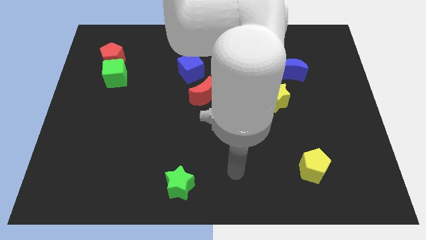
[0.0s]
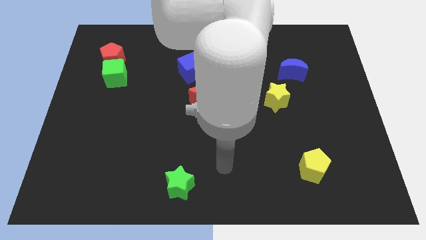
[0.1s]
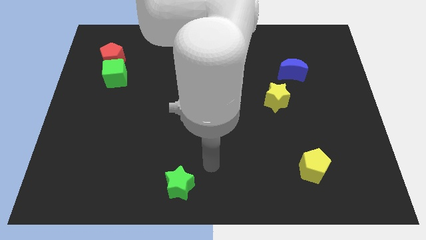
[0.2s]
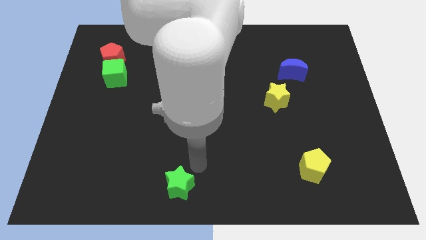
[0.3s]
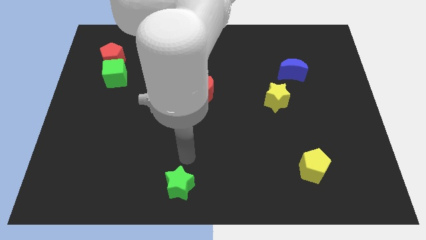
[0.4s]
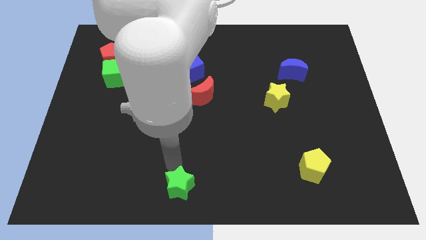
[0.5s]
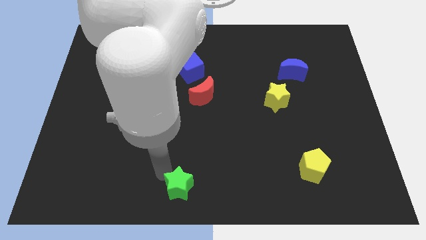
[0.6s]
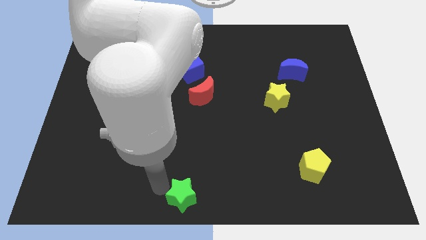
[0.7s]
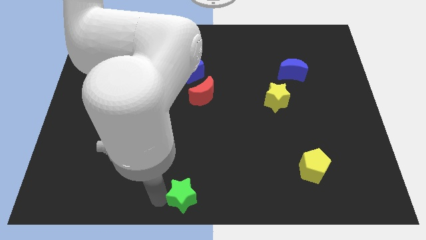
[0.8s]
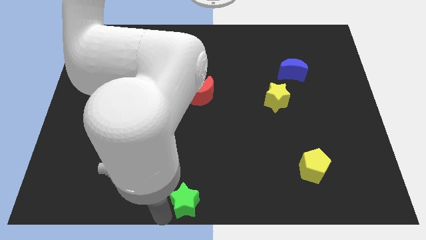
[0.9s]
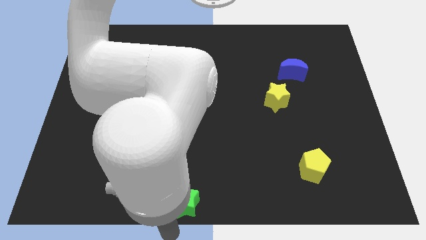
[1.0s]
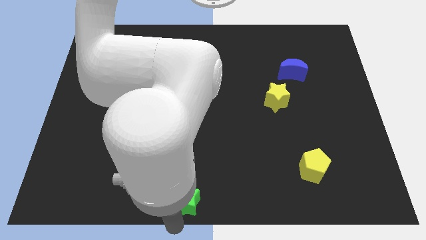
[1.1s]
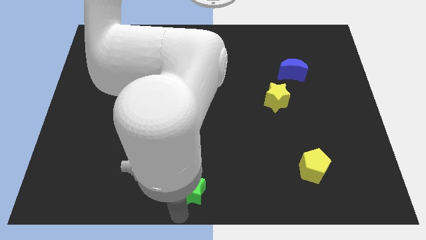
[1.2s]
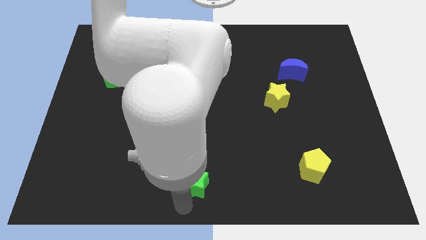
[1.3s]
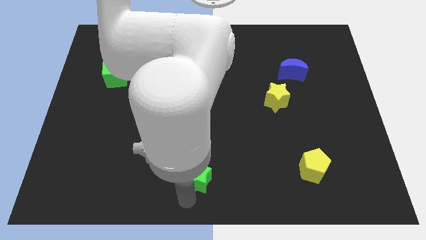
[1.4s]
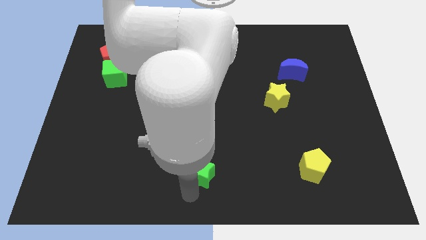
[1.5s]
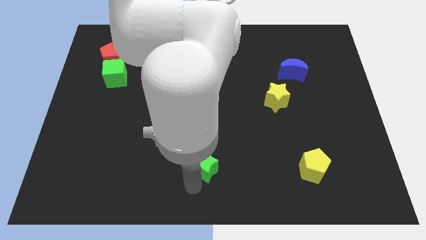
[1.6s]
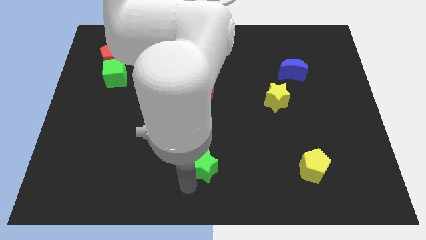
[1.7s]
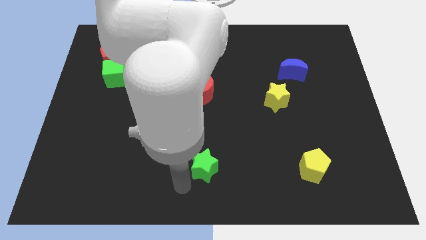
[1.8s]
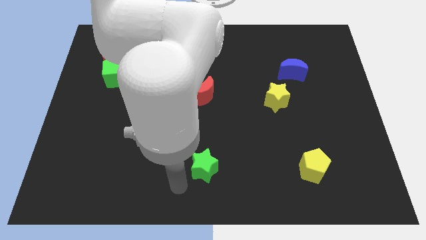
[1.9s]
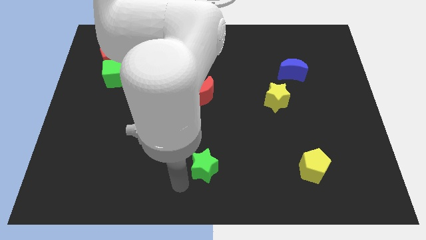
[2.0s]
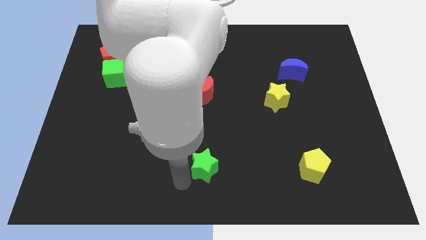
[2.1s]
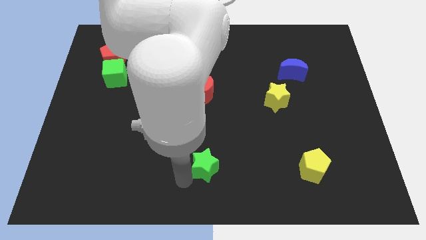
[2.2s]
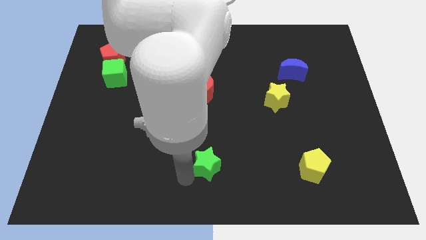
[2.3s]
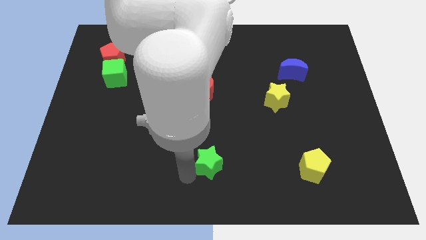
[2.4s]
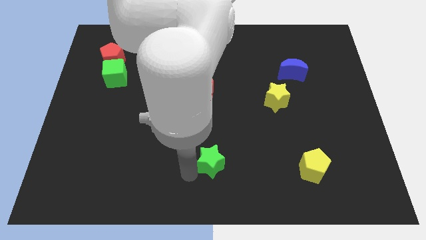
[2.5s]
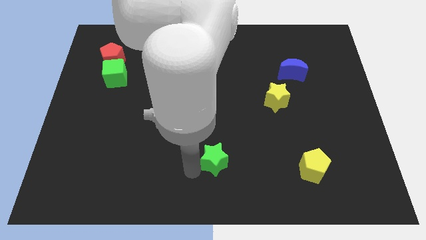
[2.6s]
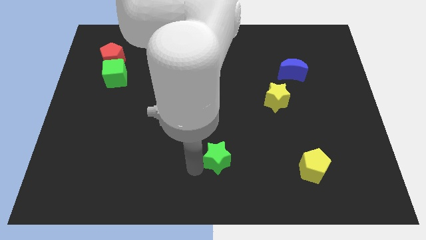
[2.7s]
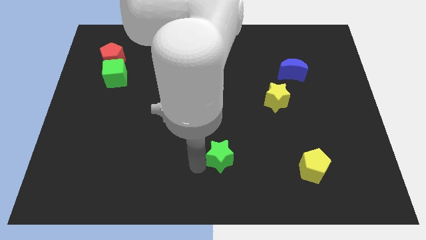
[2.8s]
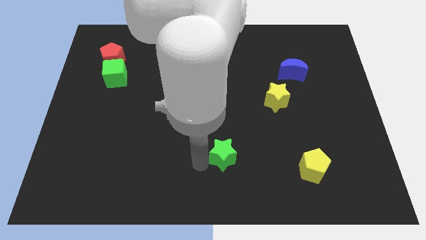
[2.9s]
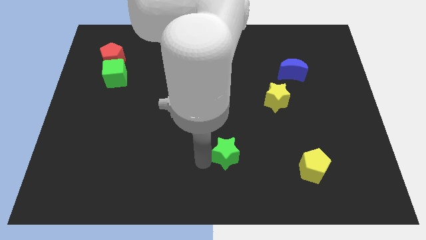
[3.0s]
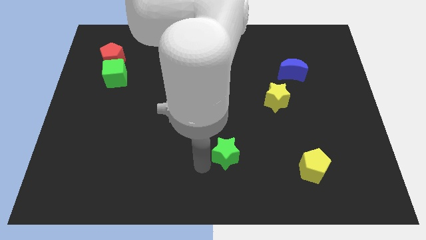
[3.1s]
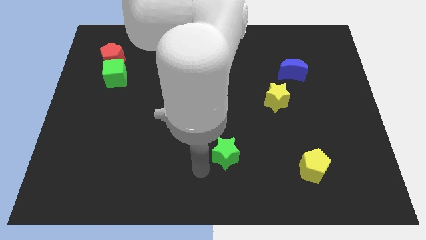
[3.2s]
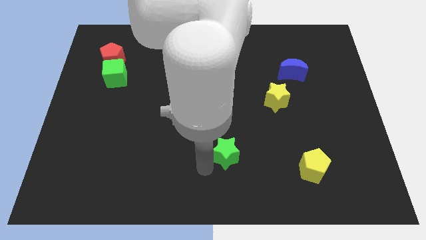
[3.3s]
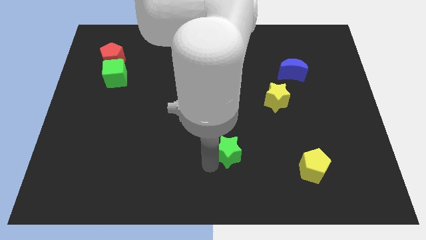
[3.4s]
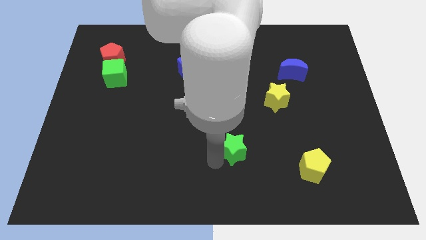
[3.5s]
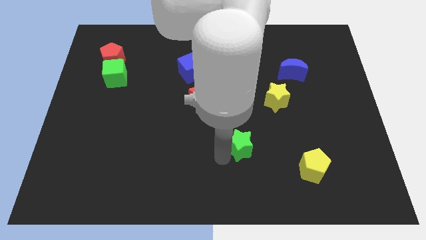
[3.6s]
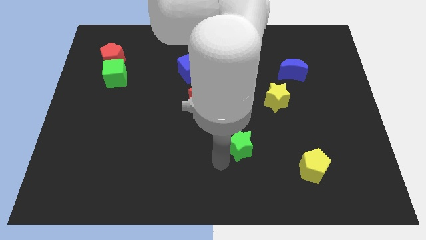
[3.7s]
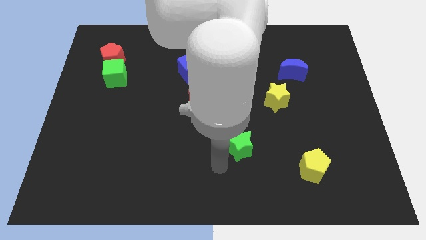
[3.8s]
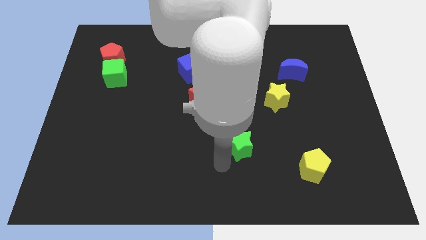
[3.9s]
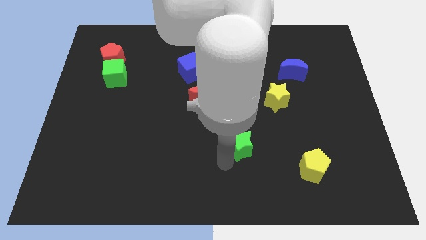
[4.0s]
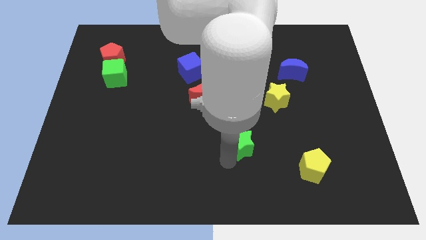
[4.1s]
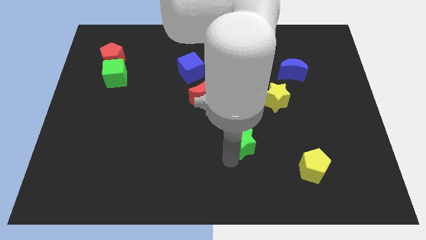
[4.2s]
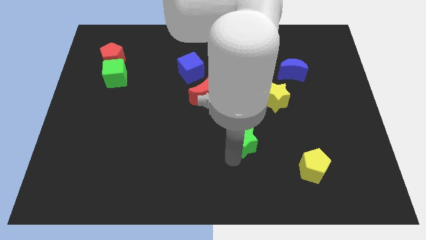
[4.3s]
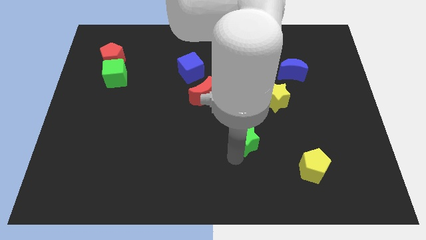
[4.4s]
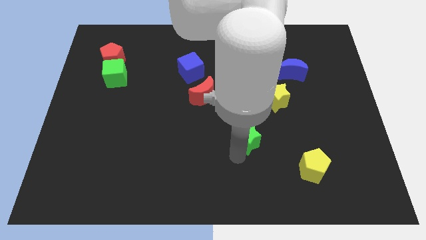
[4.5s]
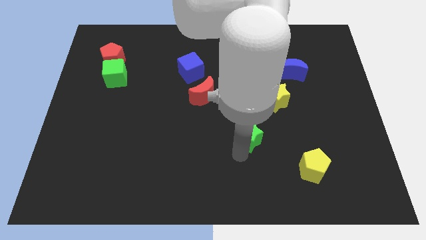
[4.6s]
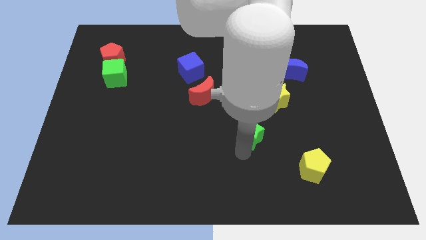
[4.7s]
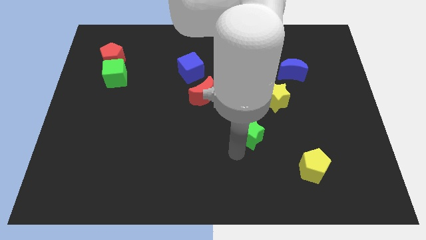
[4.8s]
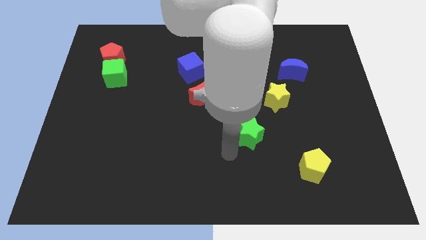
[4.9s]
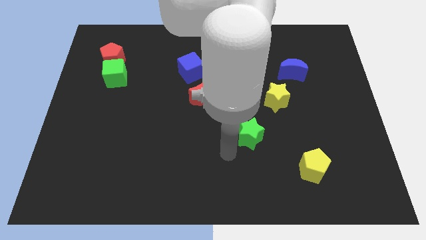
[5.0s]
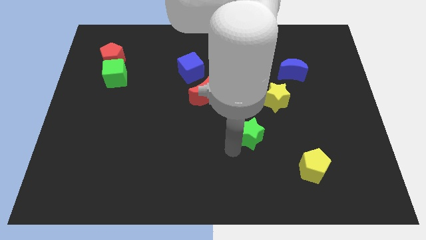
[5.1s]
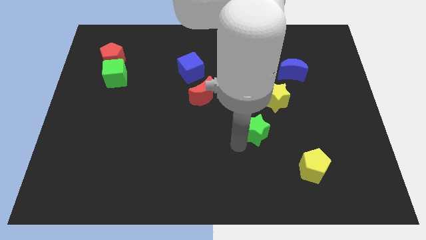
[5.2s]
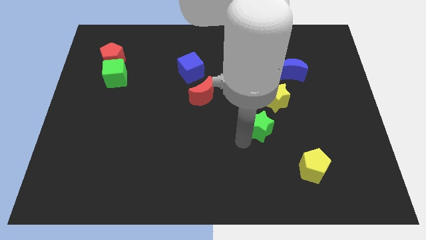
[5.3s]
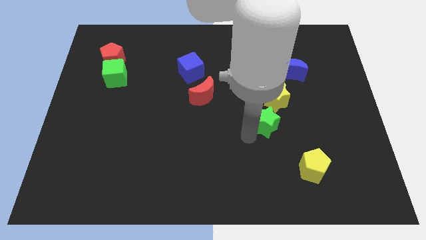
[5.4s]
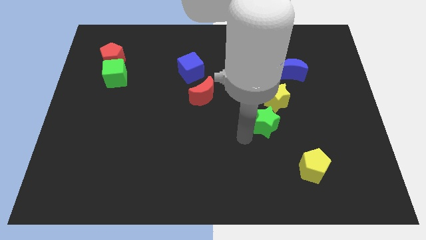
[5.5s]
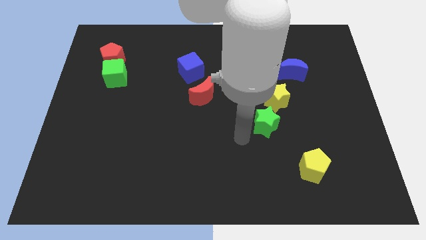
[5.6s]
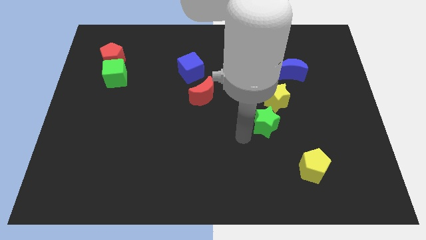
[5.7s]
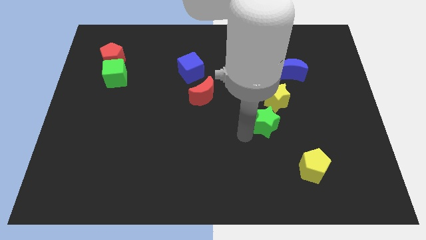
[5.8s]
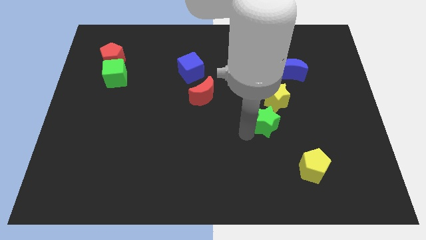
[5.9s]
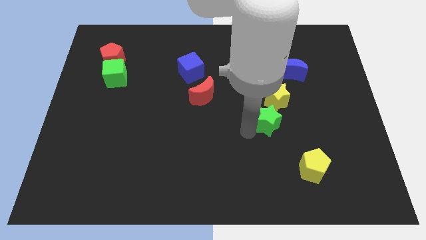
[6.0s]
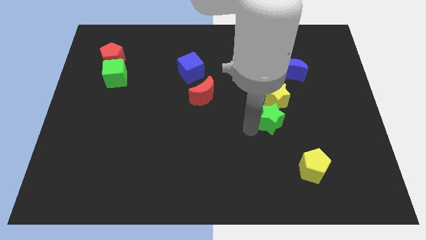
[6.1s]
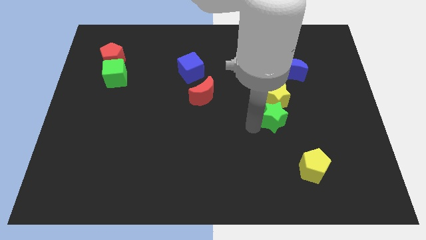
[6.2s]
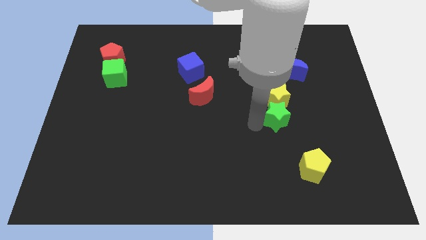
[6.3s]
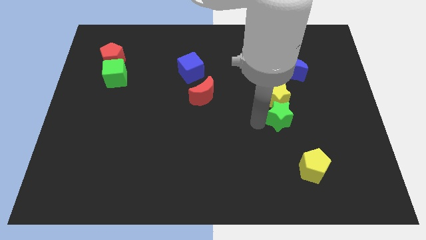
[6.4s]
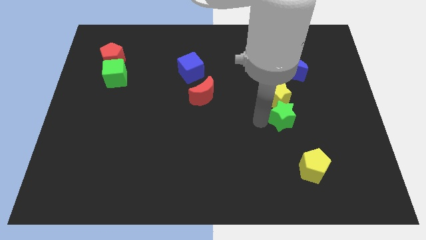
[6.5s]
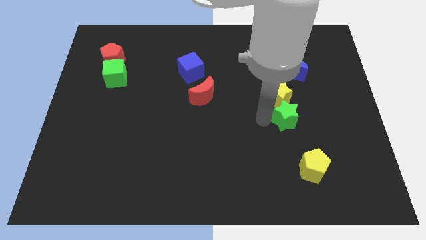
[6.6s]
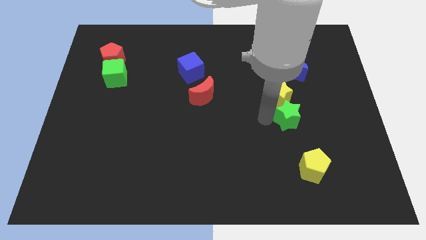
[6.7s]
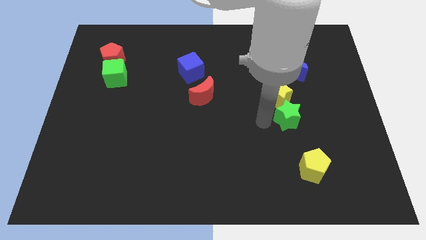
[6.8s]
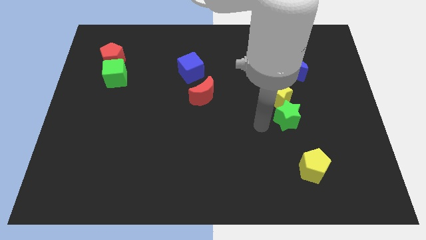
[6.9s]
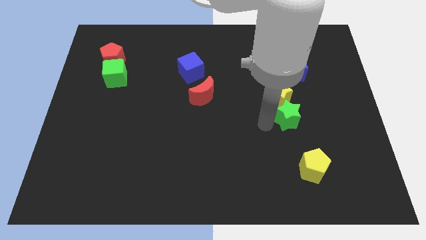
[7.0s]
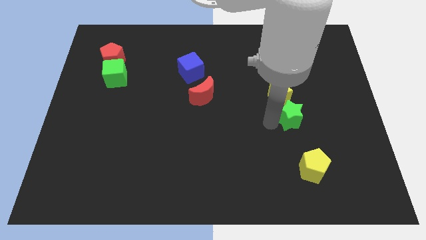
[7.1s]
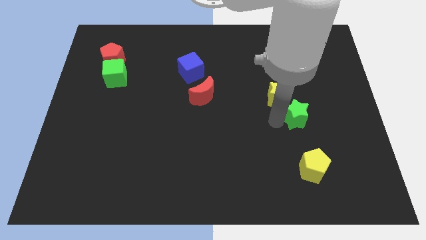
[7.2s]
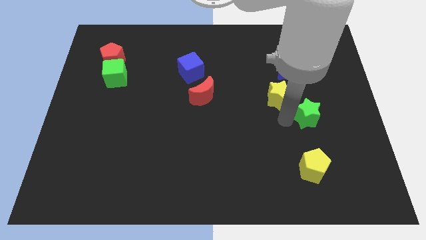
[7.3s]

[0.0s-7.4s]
slide the green star to the right side of the yellow star
